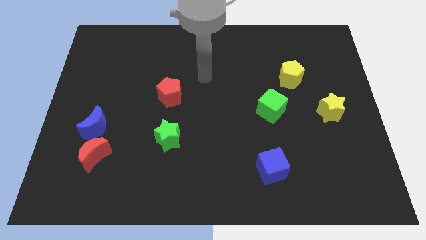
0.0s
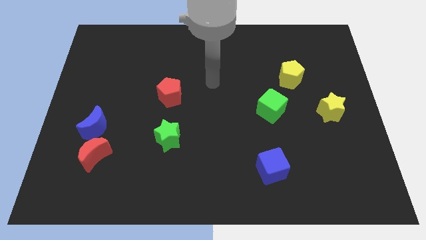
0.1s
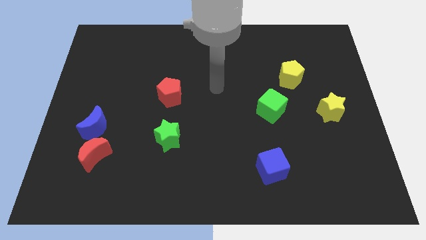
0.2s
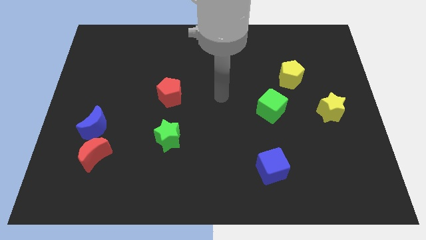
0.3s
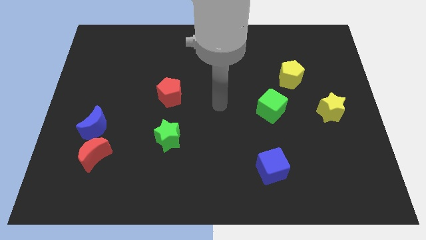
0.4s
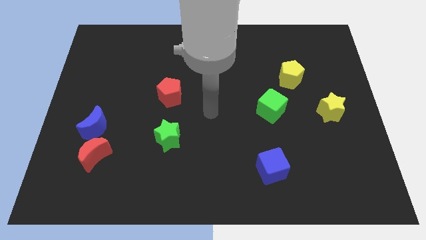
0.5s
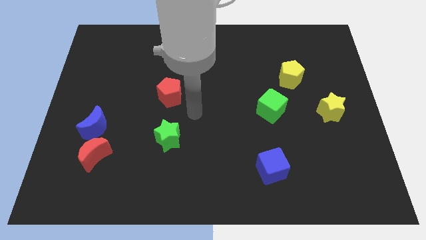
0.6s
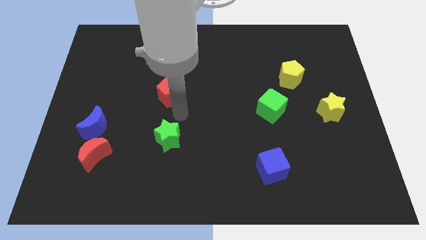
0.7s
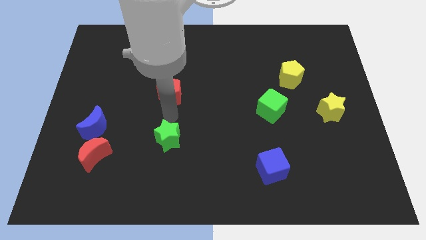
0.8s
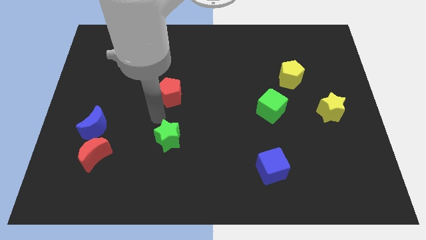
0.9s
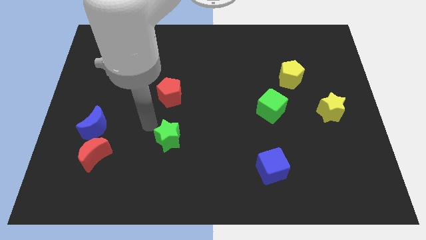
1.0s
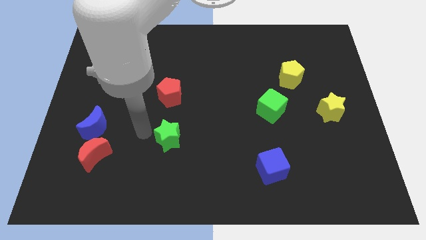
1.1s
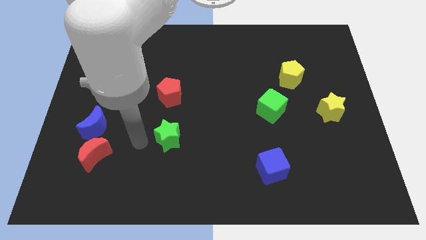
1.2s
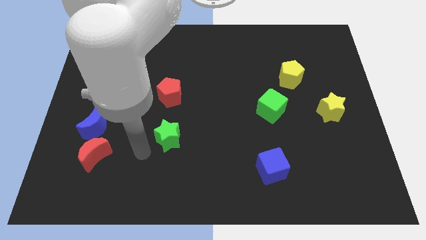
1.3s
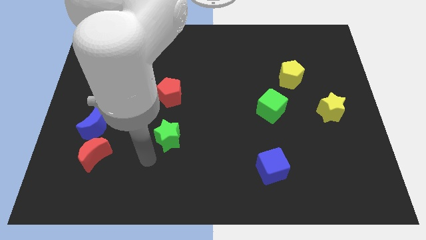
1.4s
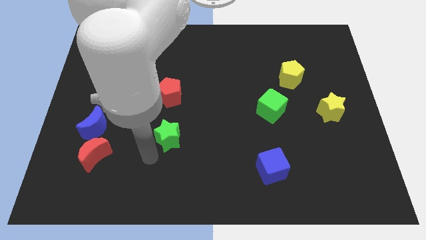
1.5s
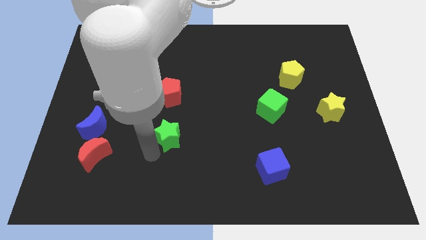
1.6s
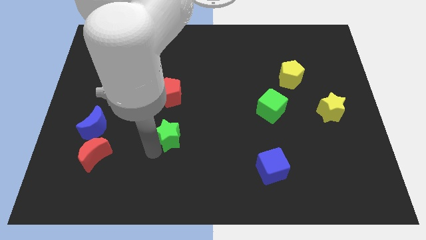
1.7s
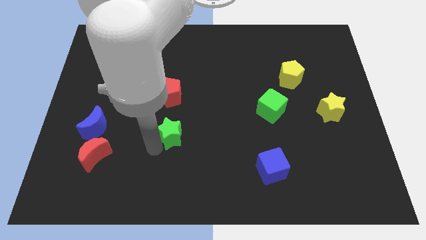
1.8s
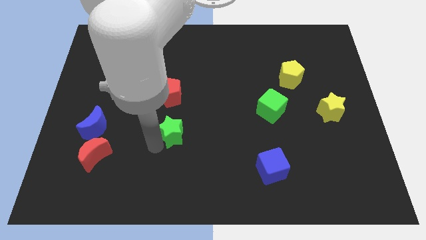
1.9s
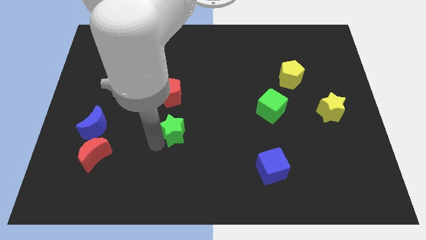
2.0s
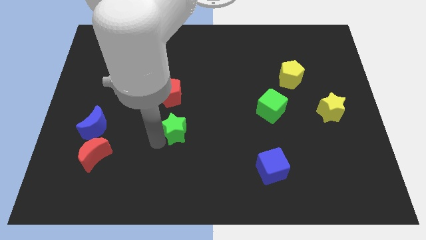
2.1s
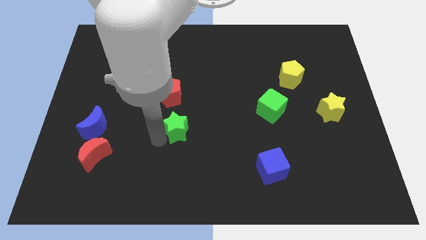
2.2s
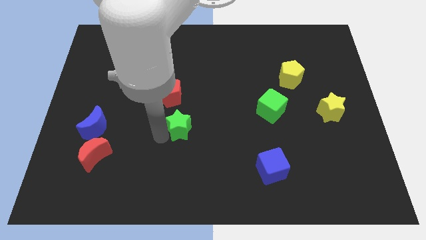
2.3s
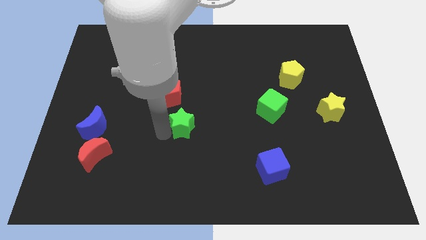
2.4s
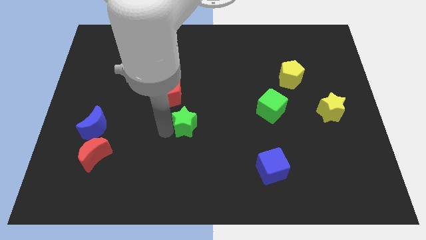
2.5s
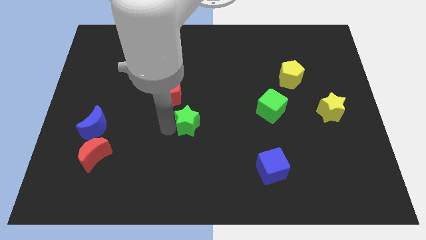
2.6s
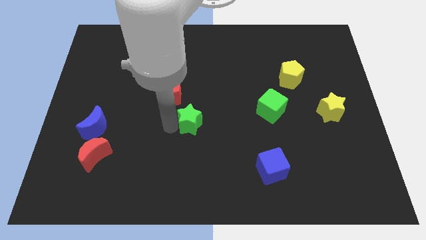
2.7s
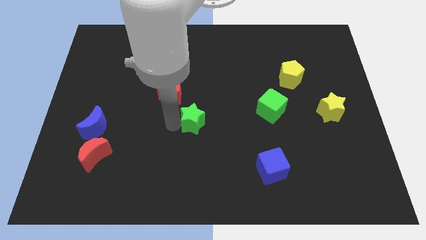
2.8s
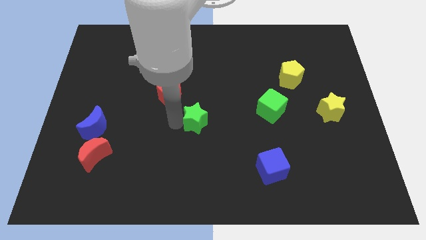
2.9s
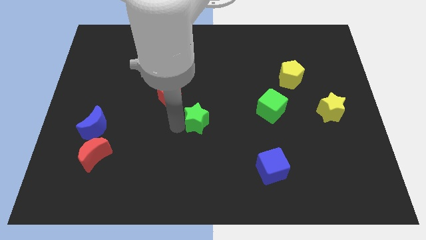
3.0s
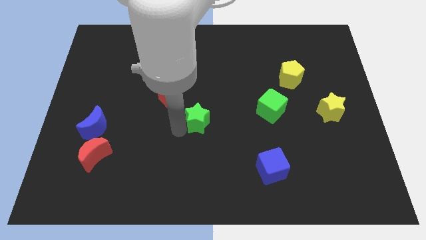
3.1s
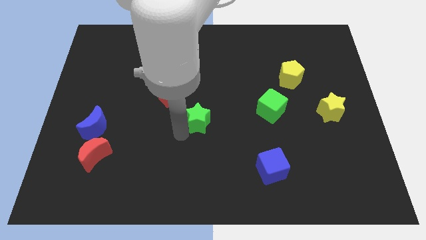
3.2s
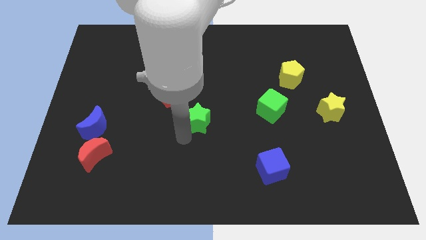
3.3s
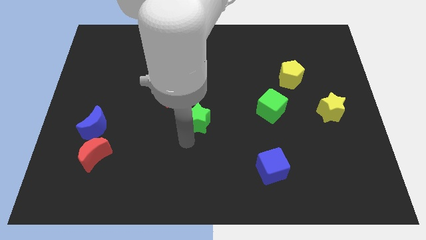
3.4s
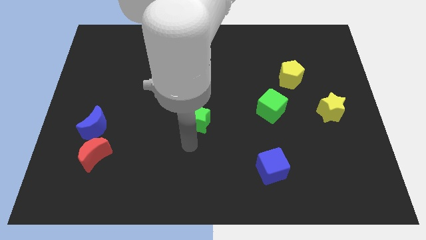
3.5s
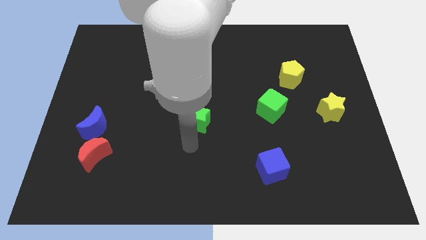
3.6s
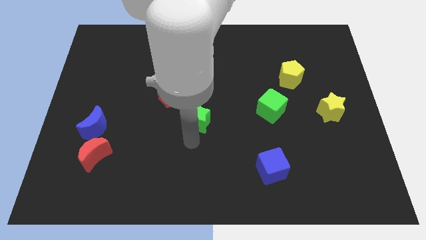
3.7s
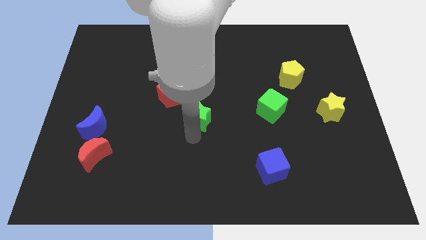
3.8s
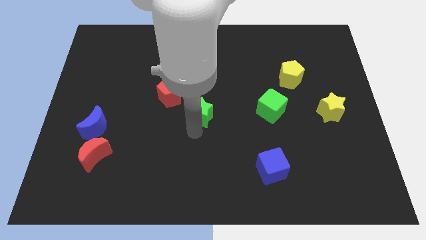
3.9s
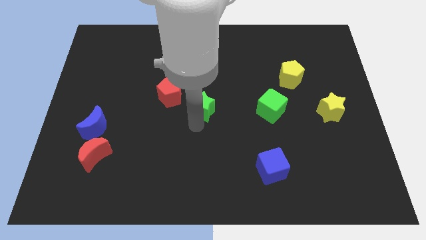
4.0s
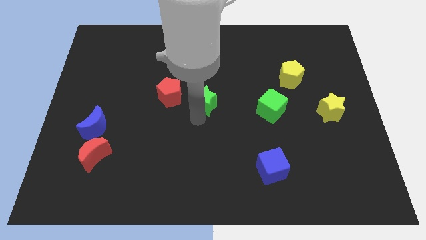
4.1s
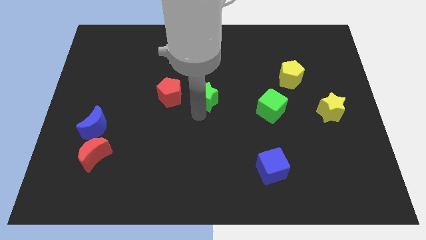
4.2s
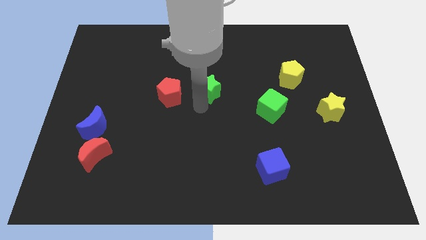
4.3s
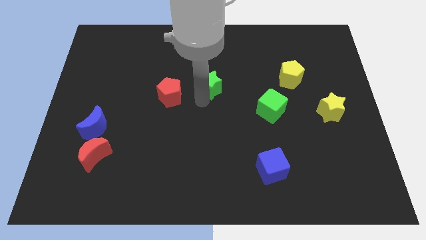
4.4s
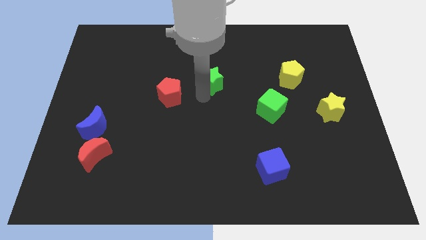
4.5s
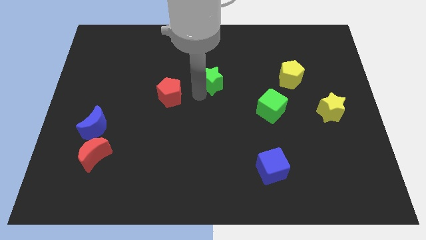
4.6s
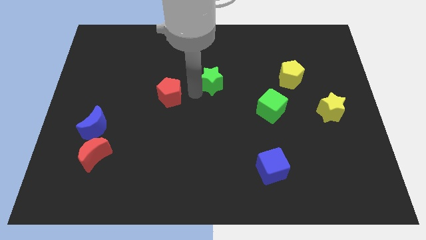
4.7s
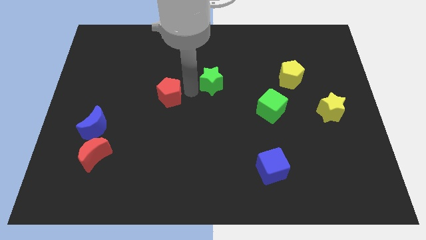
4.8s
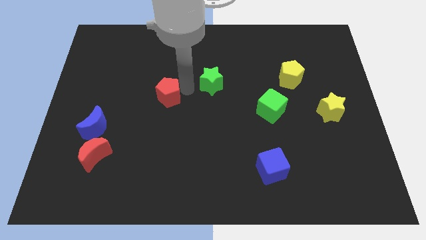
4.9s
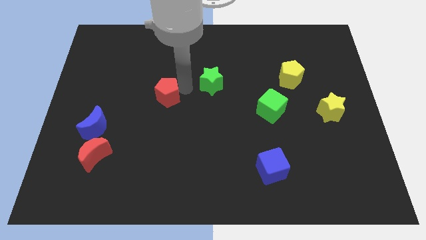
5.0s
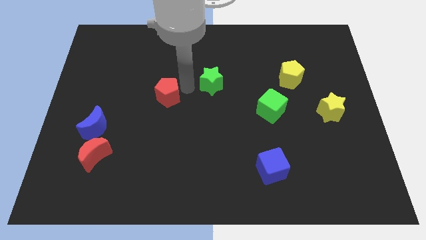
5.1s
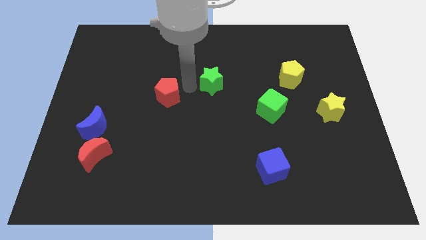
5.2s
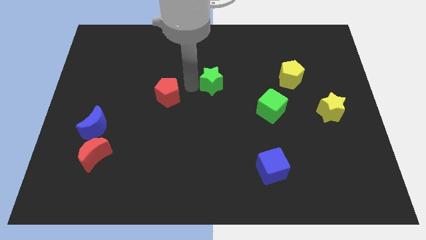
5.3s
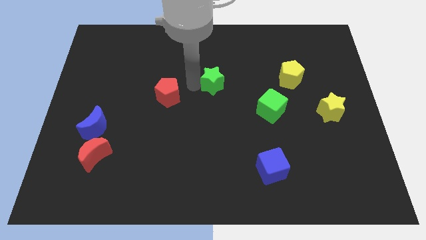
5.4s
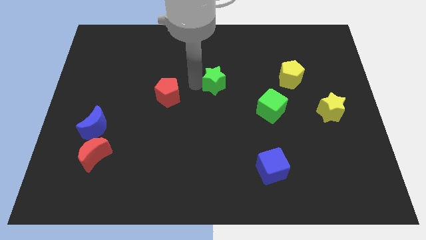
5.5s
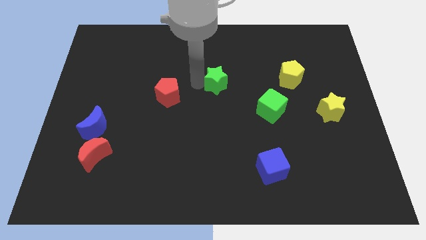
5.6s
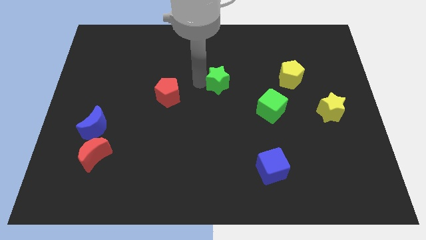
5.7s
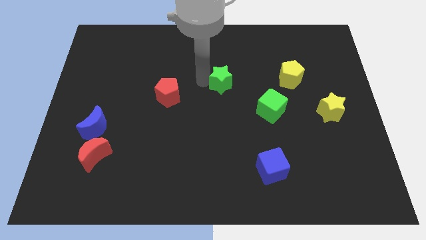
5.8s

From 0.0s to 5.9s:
push the green star up and right

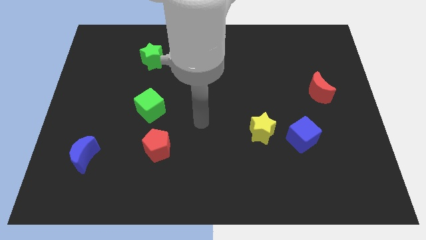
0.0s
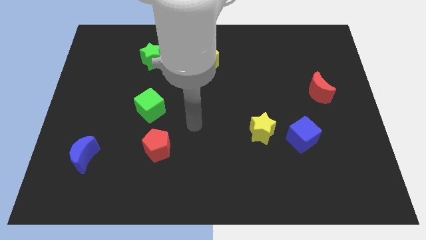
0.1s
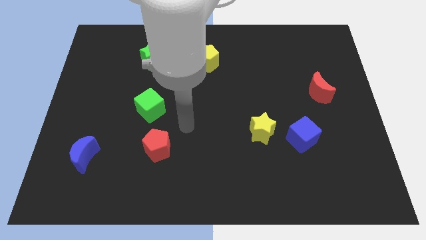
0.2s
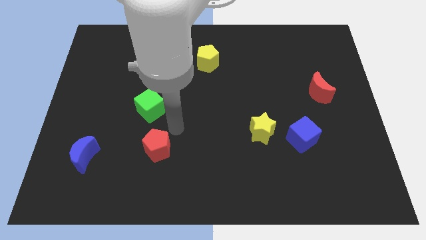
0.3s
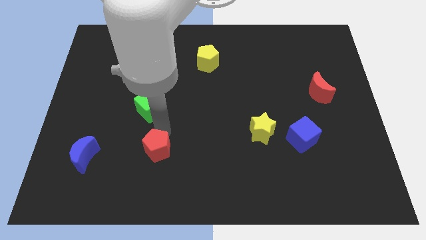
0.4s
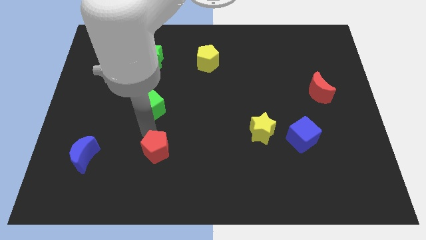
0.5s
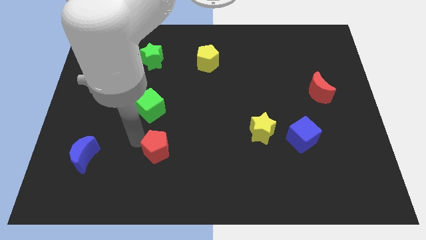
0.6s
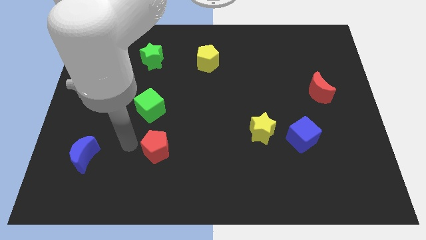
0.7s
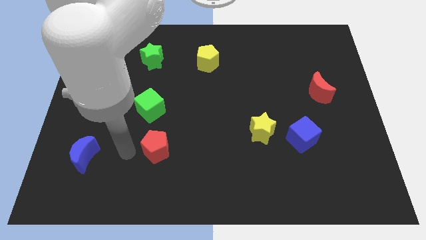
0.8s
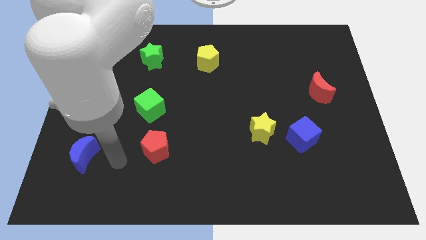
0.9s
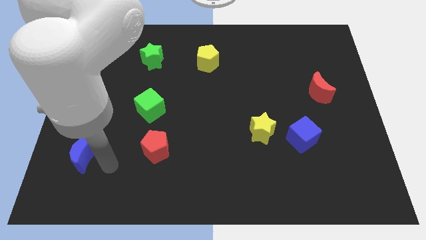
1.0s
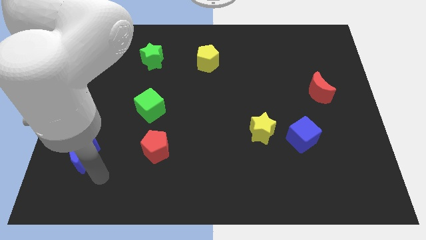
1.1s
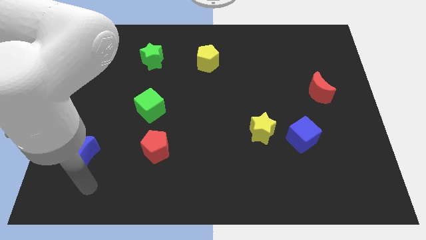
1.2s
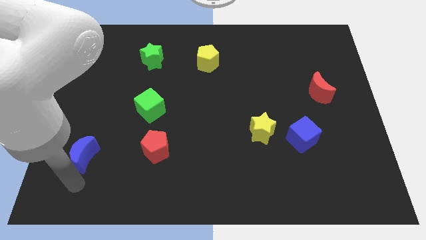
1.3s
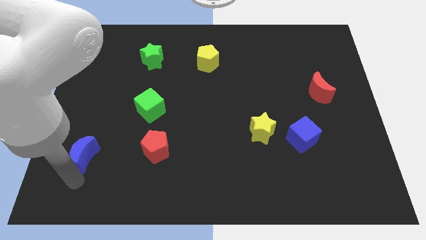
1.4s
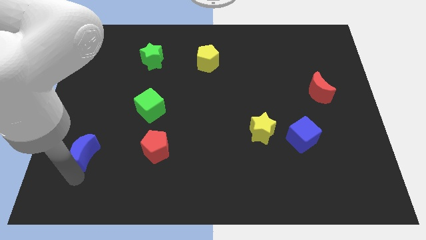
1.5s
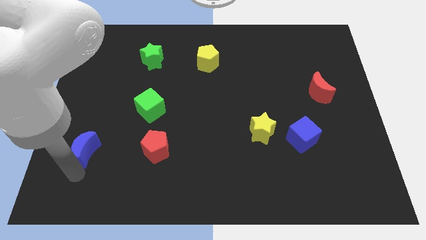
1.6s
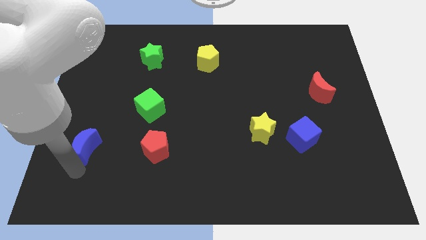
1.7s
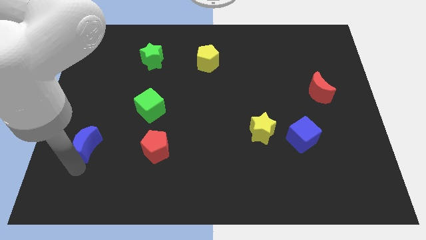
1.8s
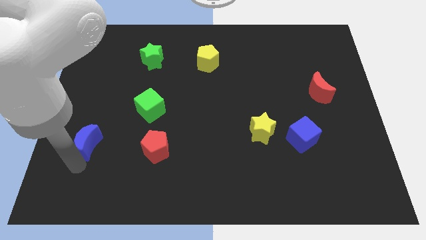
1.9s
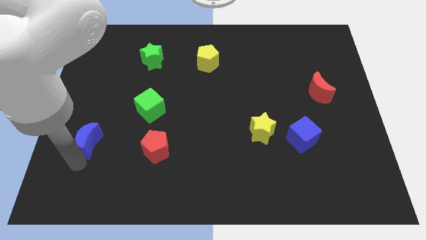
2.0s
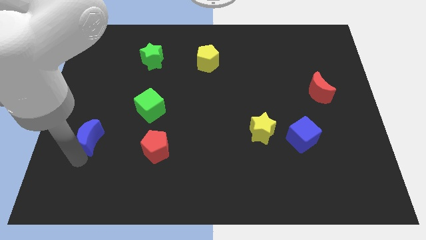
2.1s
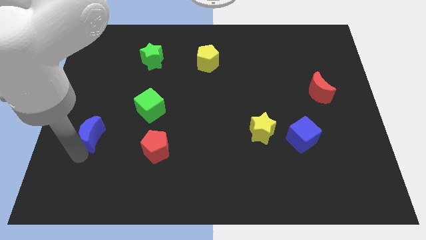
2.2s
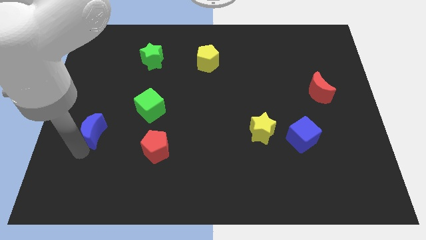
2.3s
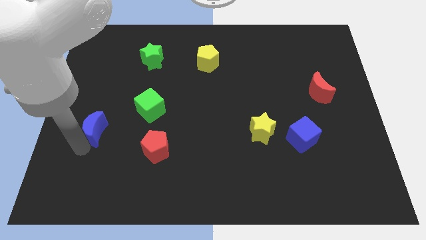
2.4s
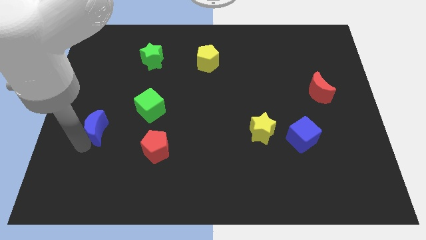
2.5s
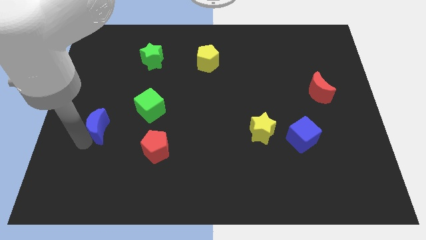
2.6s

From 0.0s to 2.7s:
push the blue moon a bit upwards

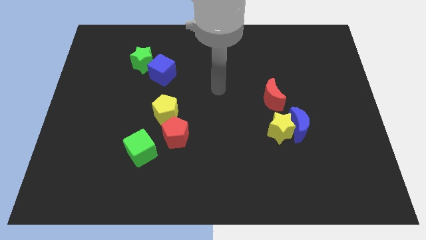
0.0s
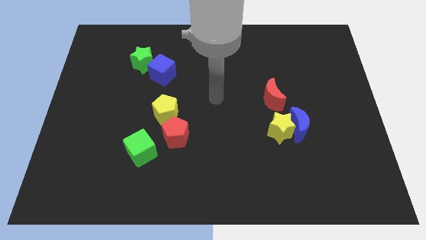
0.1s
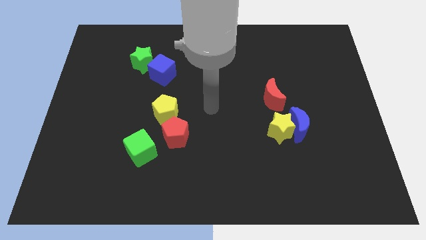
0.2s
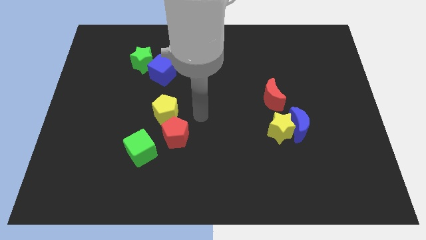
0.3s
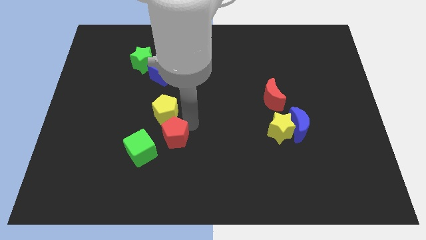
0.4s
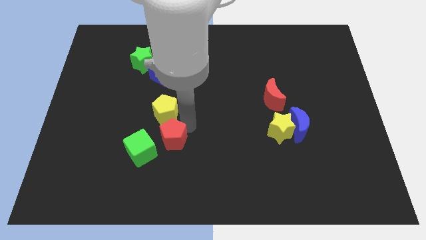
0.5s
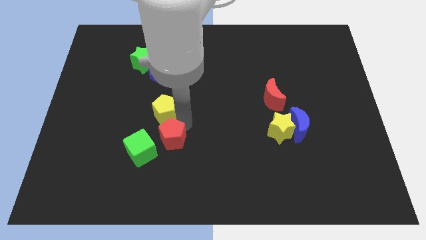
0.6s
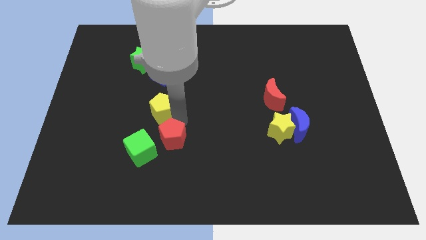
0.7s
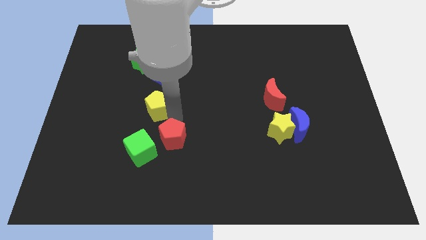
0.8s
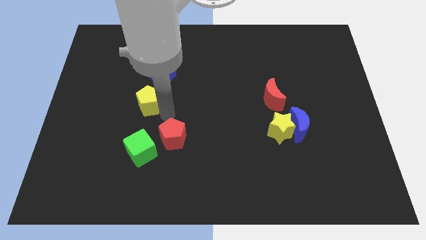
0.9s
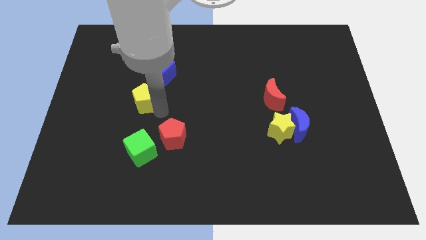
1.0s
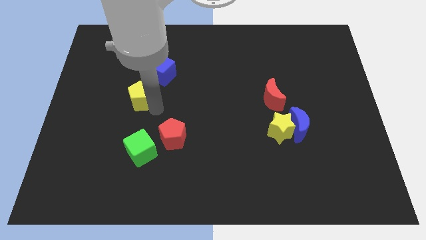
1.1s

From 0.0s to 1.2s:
push the yellow pentagon a little bit upwards and left diagonally
